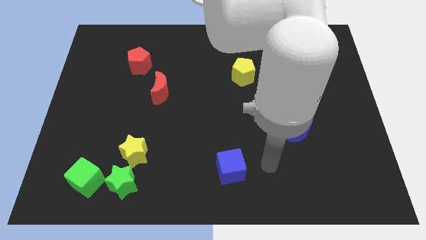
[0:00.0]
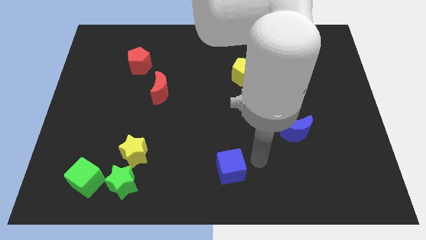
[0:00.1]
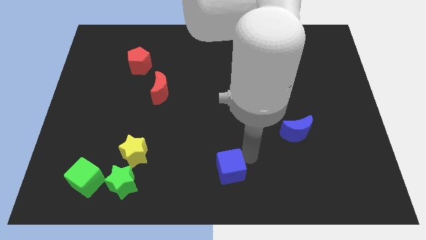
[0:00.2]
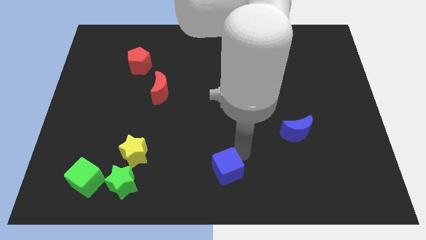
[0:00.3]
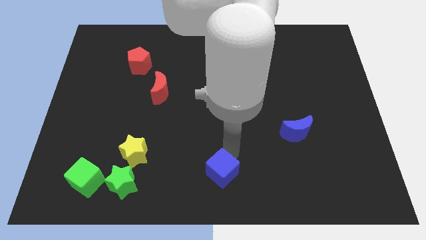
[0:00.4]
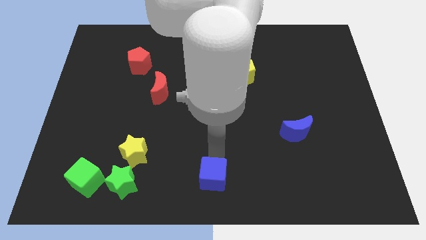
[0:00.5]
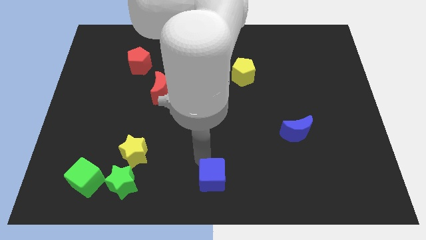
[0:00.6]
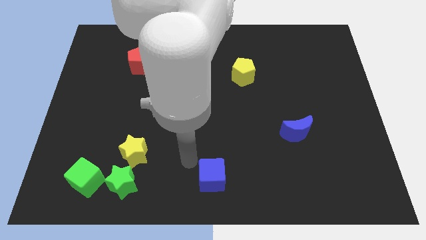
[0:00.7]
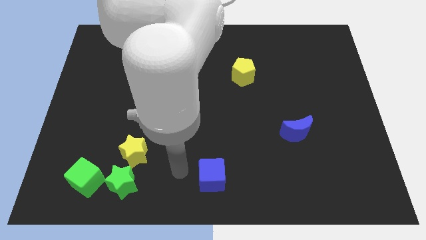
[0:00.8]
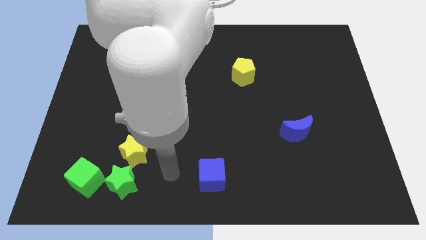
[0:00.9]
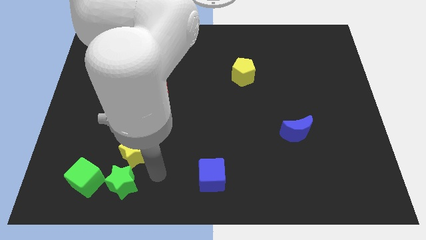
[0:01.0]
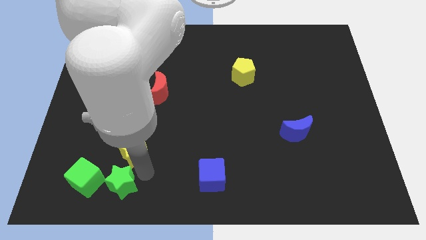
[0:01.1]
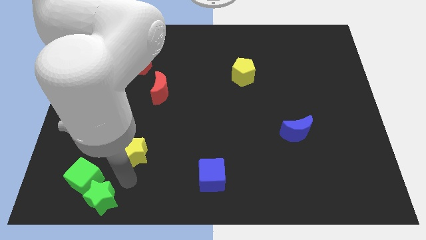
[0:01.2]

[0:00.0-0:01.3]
separate the yellow star from the green star

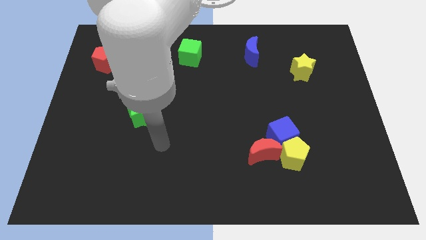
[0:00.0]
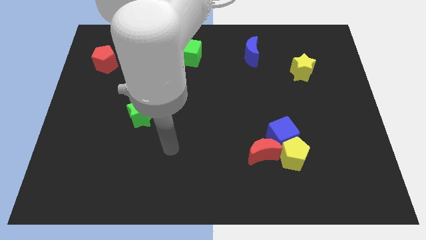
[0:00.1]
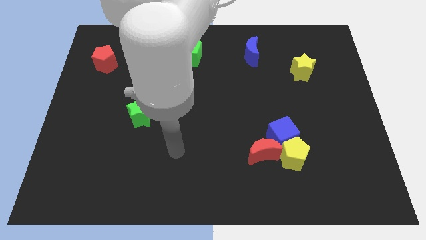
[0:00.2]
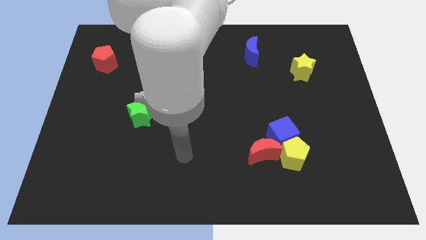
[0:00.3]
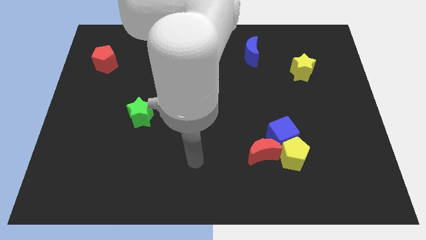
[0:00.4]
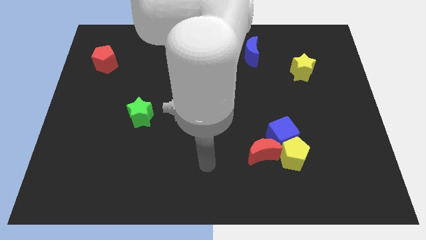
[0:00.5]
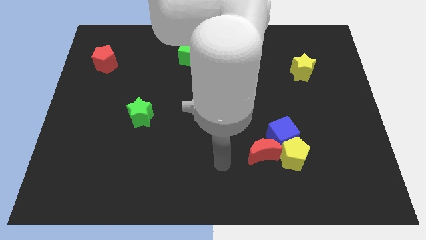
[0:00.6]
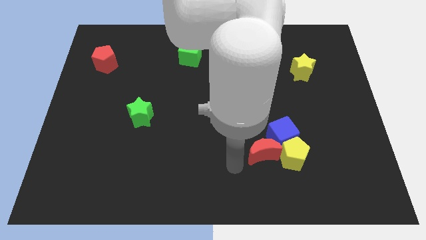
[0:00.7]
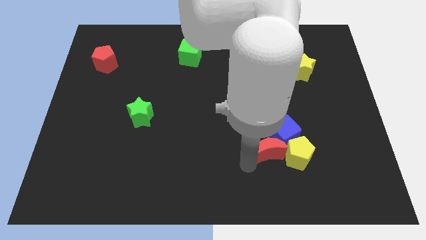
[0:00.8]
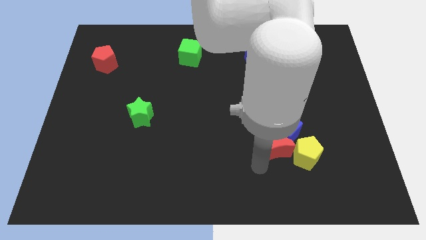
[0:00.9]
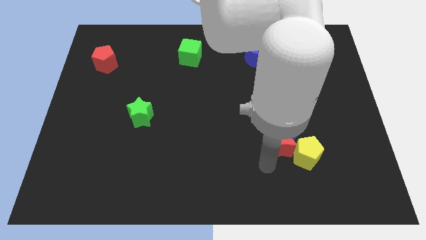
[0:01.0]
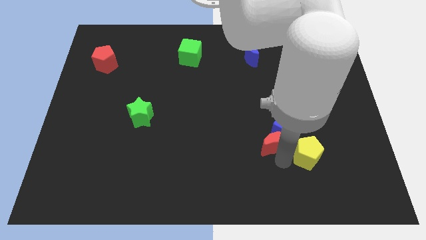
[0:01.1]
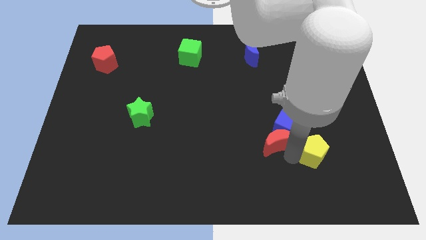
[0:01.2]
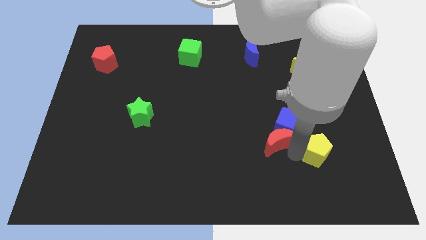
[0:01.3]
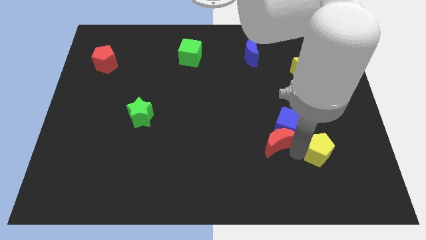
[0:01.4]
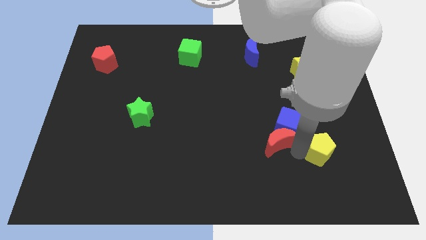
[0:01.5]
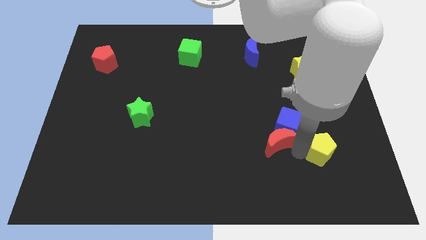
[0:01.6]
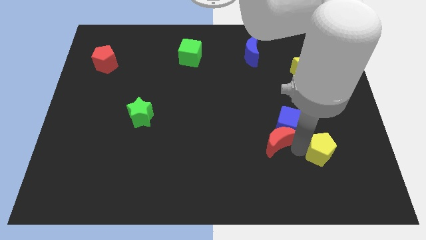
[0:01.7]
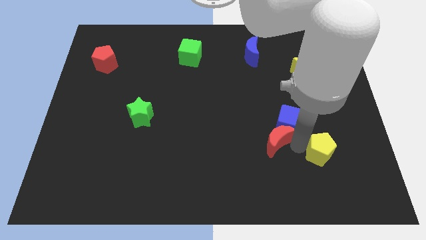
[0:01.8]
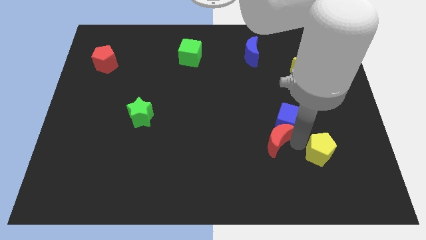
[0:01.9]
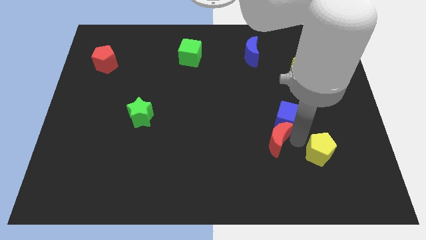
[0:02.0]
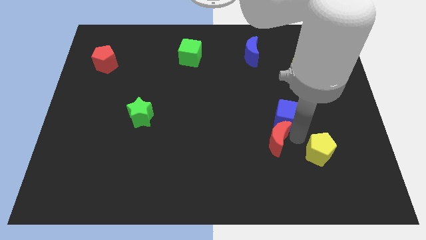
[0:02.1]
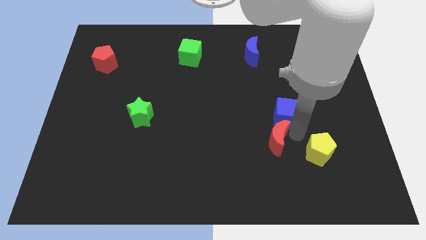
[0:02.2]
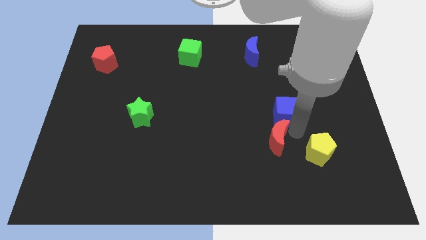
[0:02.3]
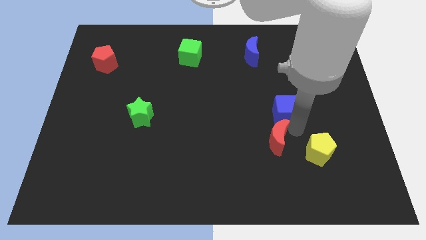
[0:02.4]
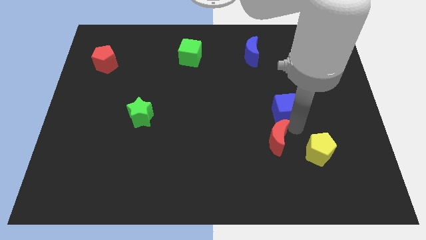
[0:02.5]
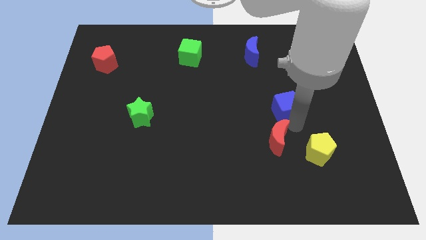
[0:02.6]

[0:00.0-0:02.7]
pull the blue cube apart from the yellow pentagon and red moon

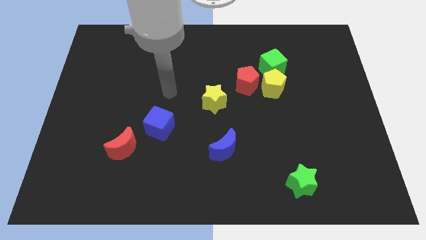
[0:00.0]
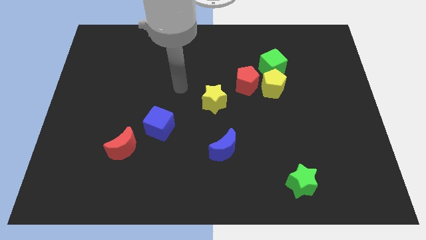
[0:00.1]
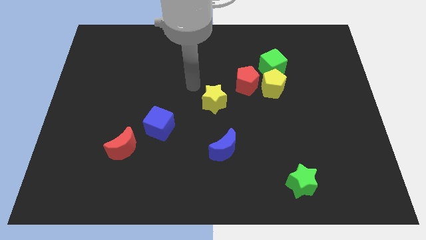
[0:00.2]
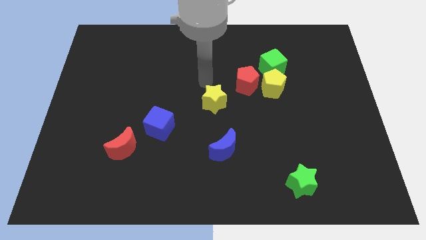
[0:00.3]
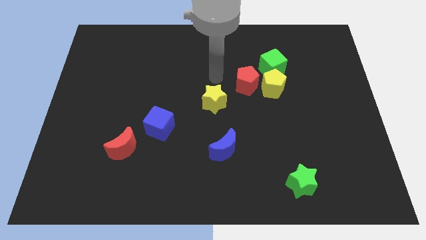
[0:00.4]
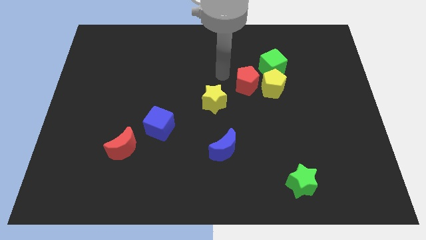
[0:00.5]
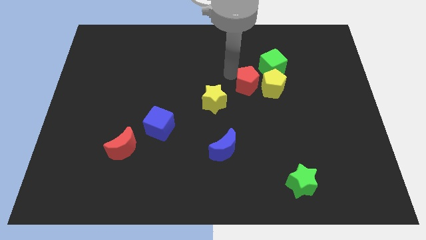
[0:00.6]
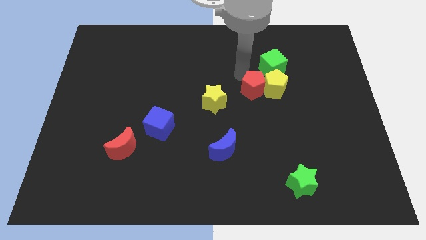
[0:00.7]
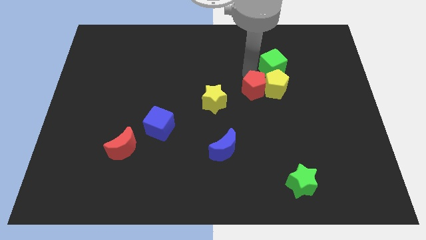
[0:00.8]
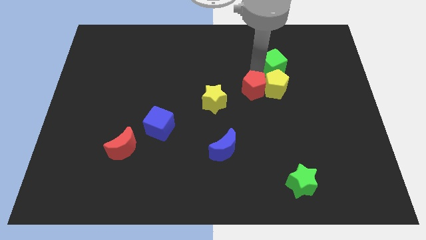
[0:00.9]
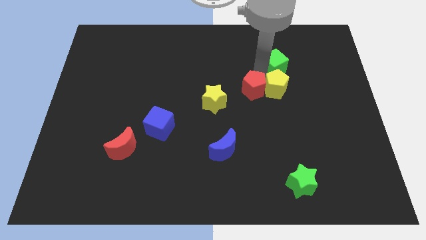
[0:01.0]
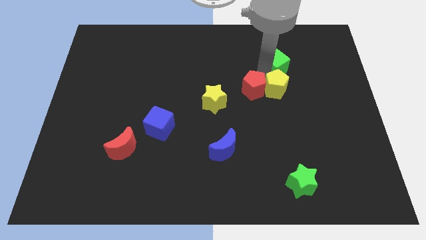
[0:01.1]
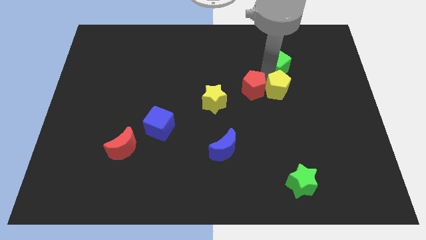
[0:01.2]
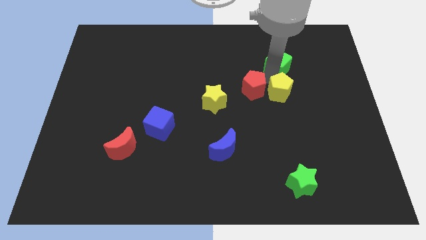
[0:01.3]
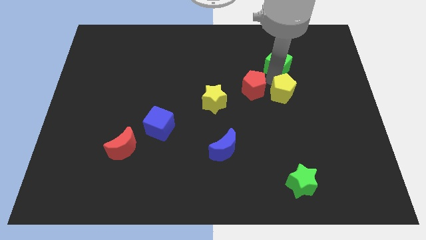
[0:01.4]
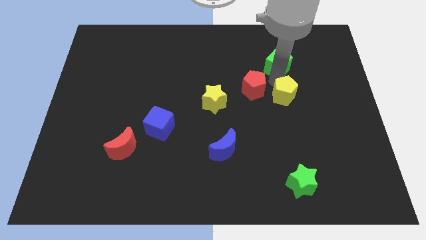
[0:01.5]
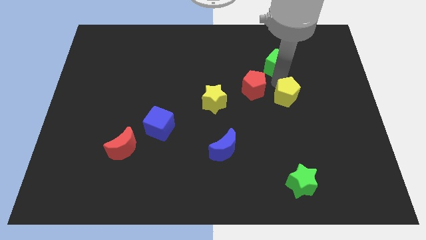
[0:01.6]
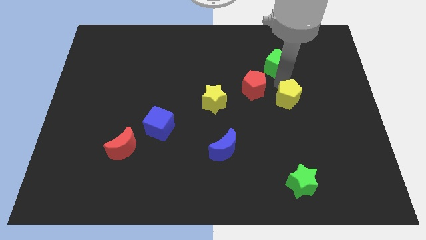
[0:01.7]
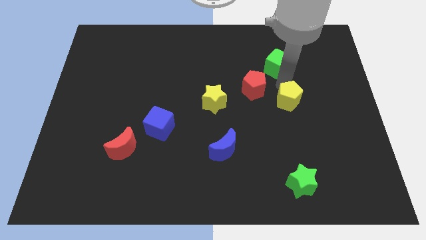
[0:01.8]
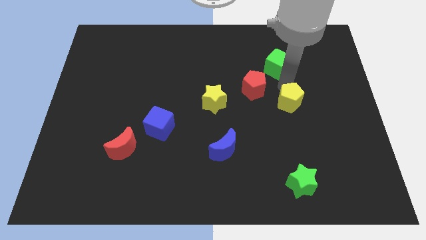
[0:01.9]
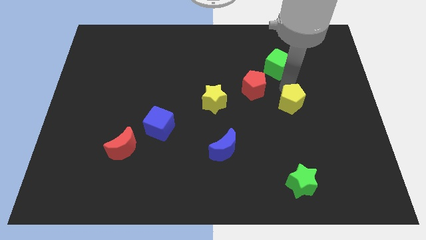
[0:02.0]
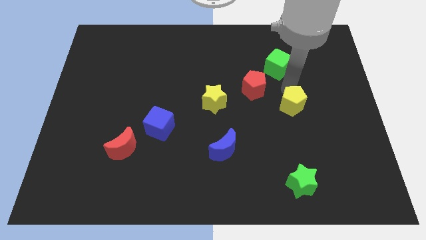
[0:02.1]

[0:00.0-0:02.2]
separate the yellow pentagon from the green cube and red pentagon

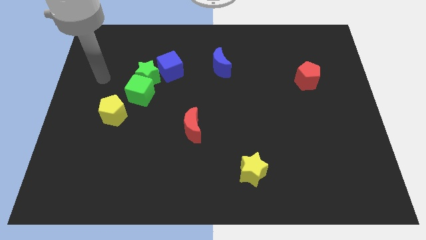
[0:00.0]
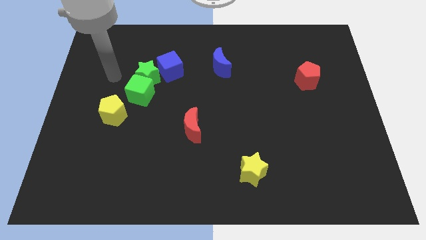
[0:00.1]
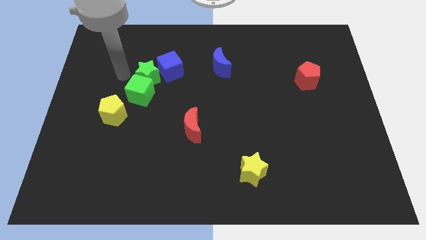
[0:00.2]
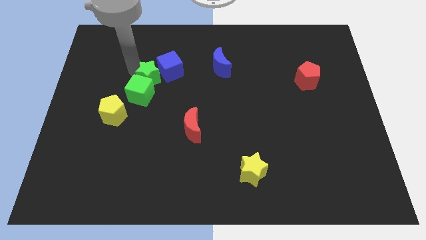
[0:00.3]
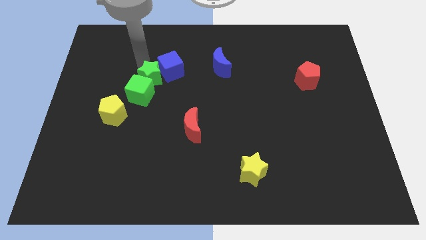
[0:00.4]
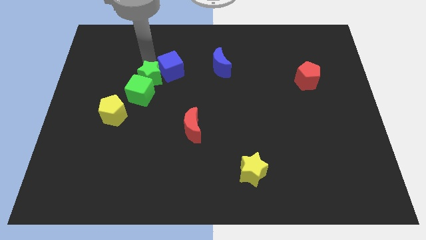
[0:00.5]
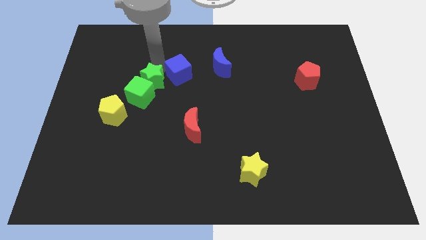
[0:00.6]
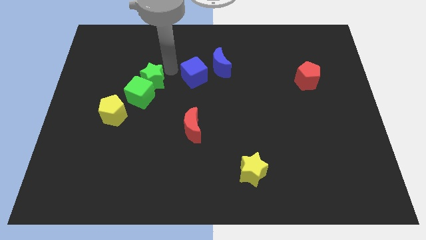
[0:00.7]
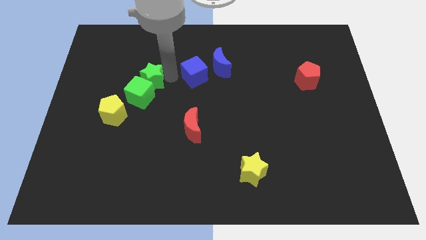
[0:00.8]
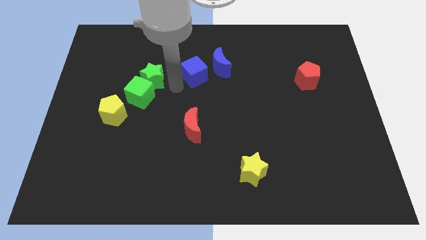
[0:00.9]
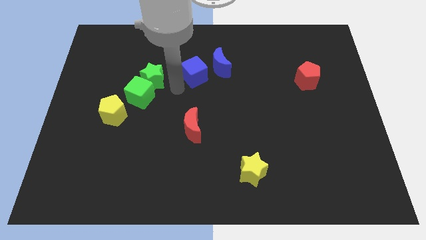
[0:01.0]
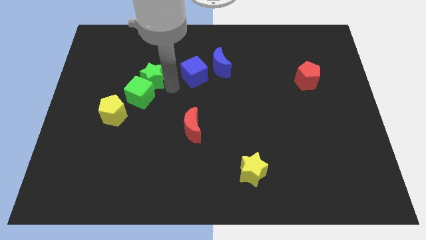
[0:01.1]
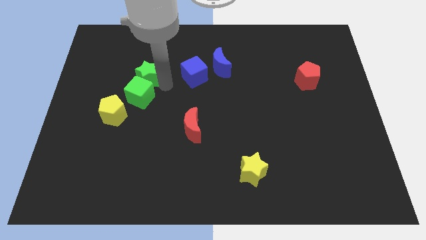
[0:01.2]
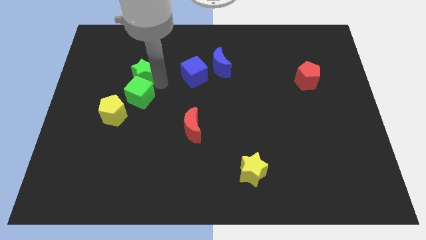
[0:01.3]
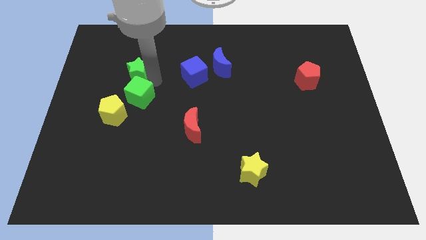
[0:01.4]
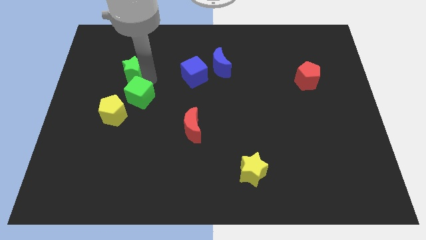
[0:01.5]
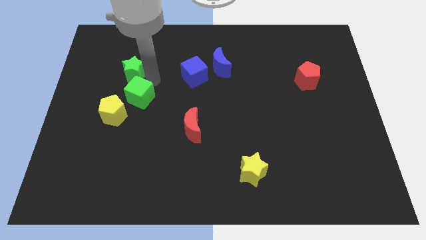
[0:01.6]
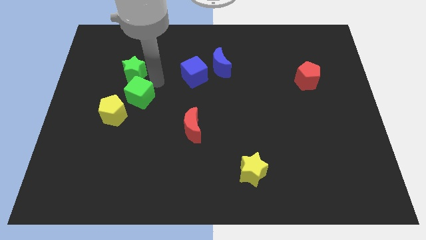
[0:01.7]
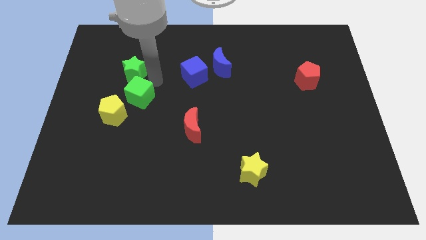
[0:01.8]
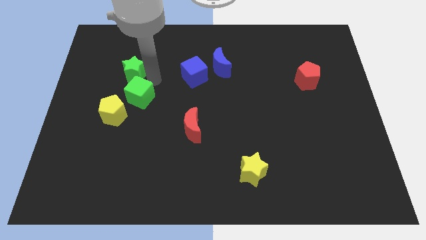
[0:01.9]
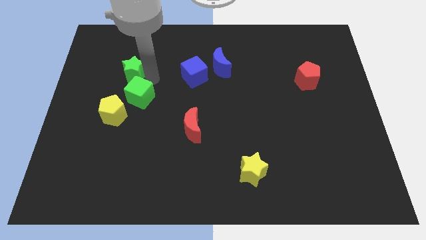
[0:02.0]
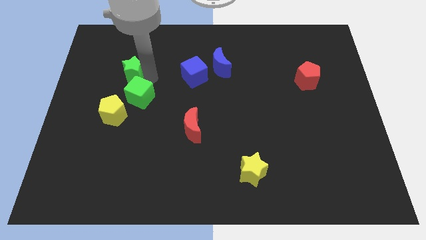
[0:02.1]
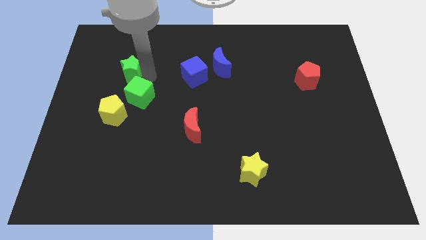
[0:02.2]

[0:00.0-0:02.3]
pull the green star apart from the green cube and blue cube

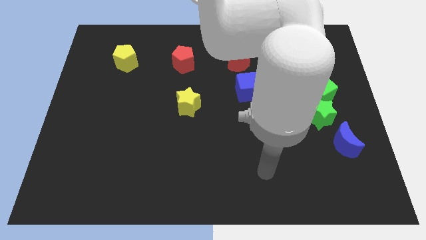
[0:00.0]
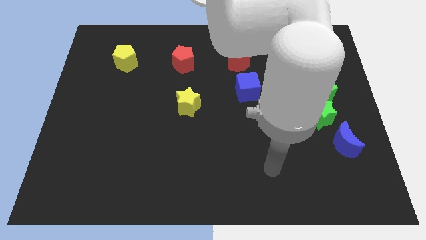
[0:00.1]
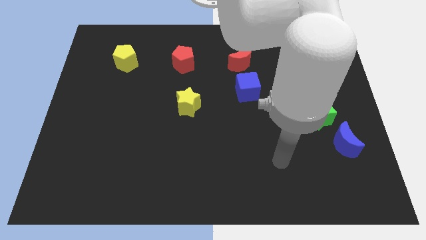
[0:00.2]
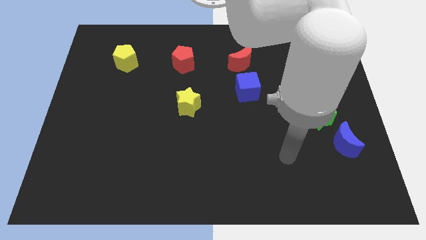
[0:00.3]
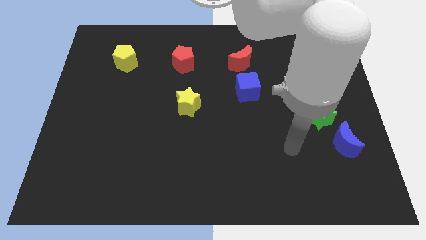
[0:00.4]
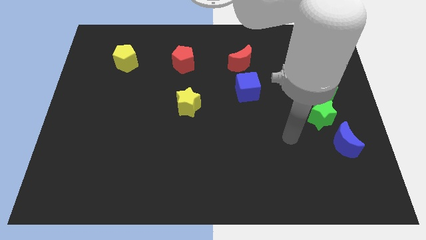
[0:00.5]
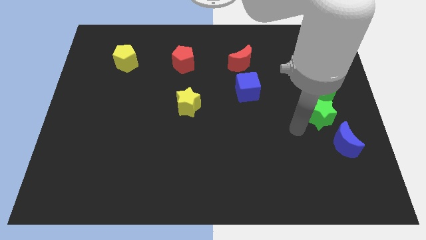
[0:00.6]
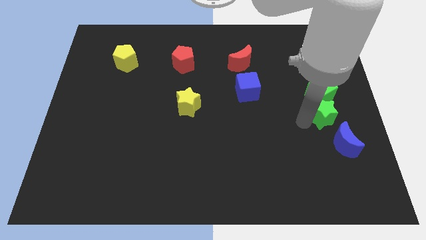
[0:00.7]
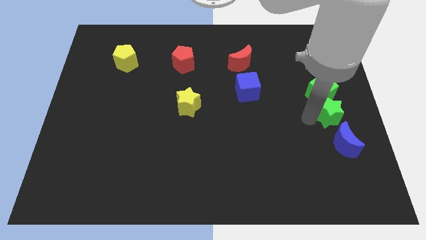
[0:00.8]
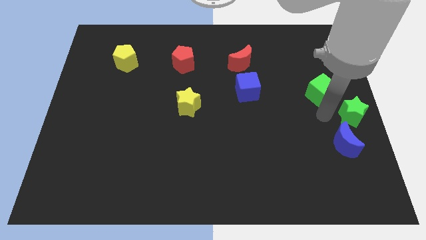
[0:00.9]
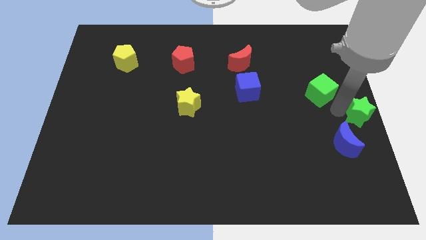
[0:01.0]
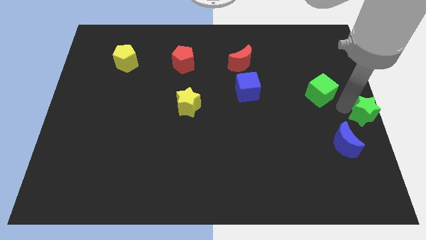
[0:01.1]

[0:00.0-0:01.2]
pull the green cube apart from the green star
